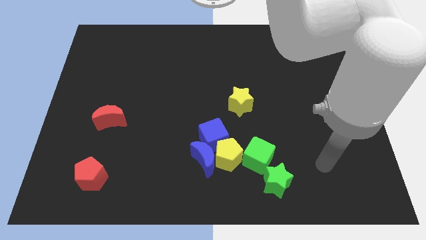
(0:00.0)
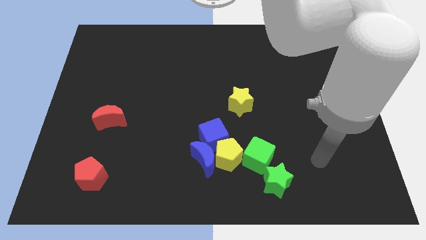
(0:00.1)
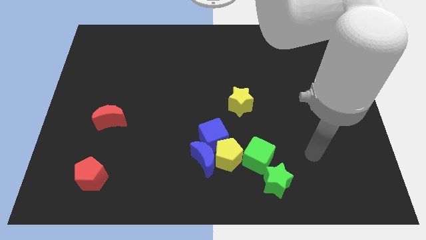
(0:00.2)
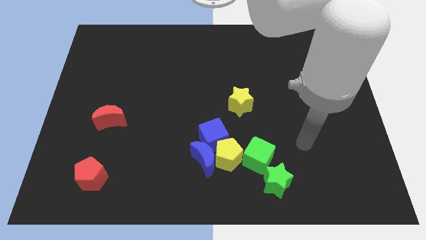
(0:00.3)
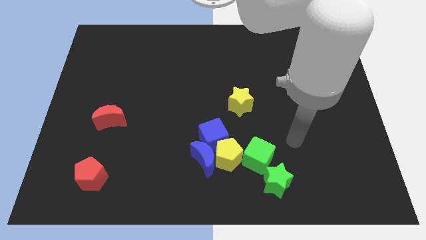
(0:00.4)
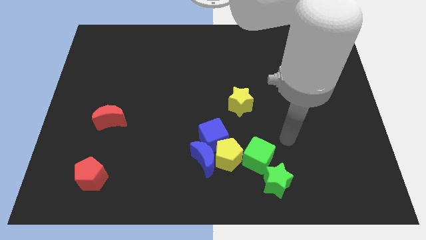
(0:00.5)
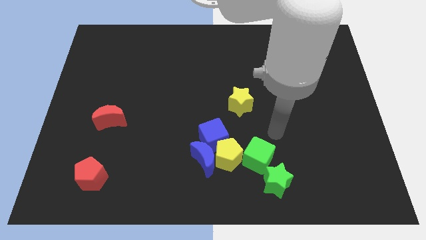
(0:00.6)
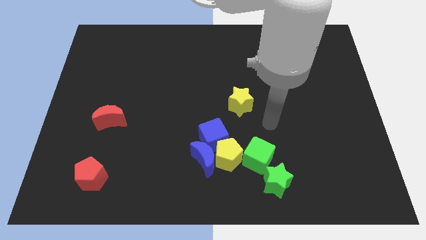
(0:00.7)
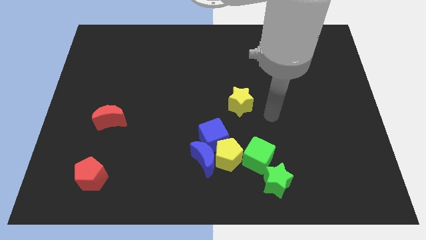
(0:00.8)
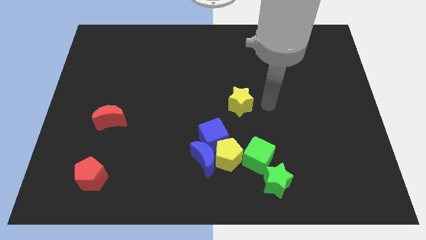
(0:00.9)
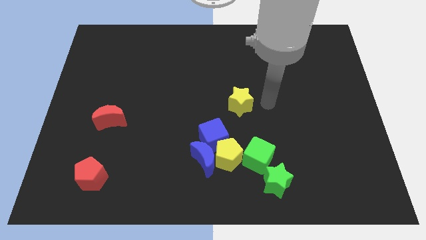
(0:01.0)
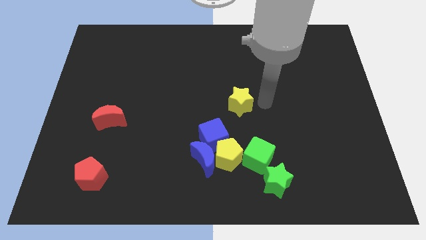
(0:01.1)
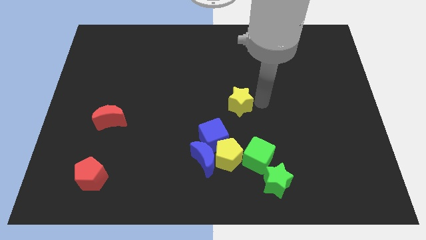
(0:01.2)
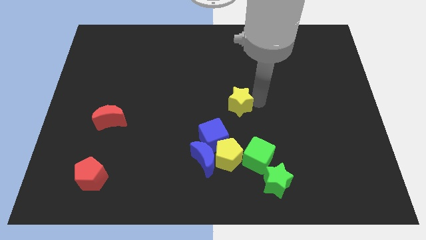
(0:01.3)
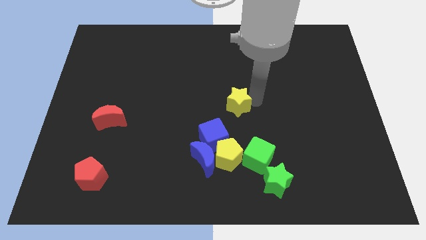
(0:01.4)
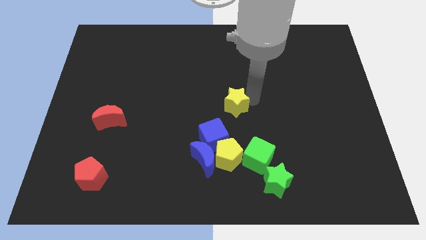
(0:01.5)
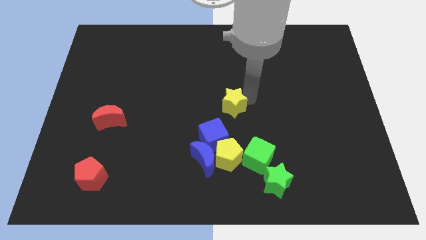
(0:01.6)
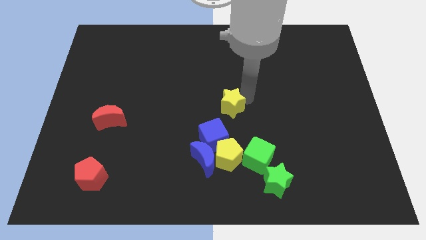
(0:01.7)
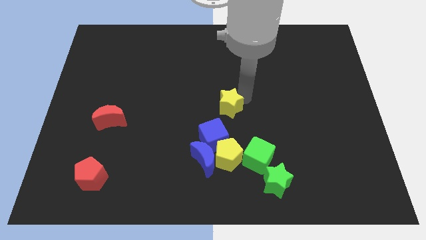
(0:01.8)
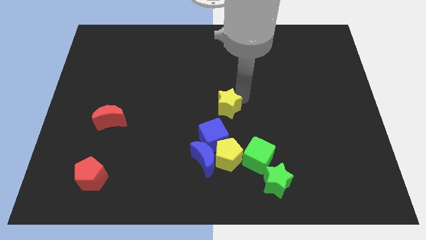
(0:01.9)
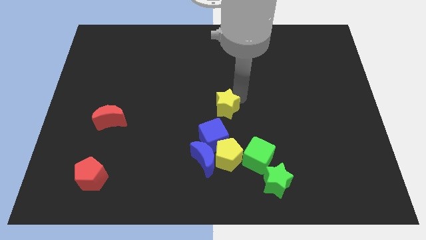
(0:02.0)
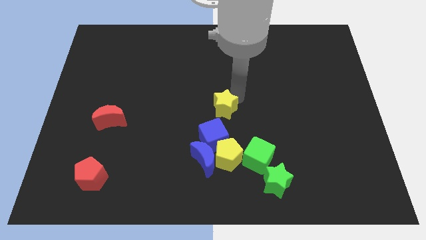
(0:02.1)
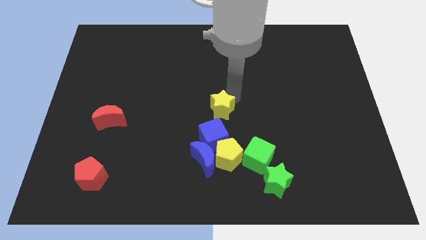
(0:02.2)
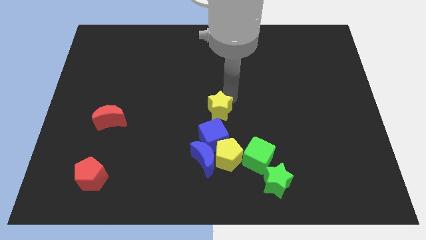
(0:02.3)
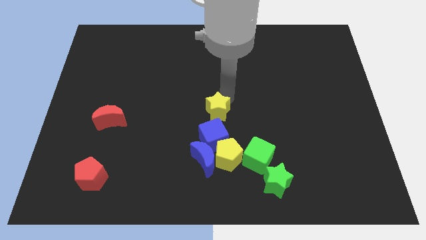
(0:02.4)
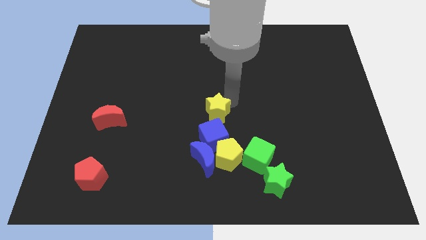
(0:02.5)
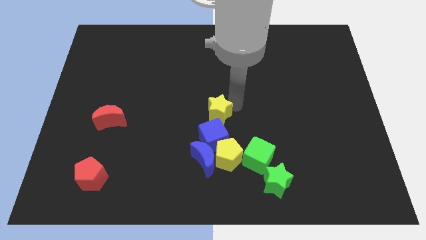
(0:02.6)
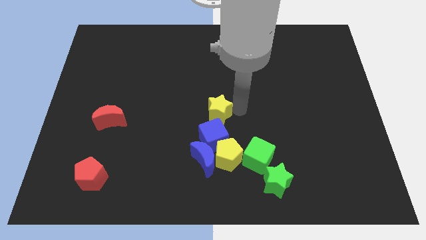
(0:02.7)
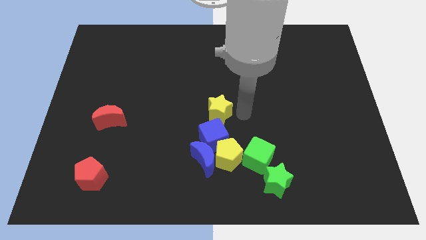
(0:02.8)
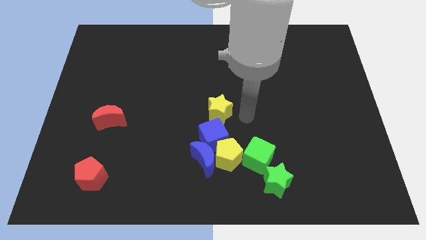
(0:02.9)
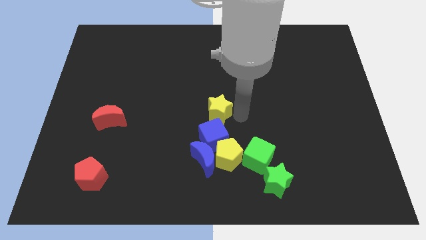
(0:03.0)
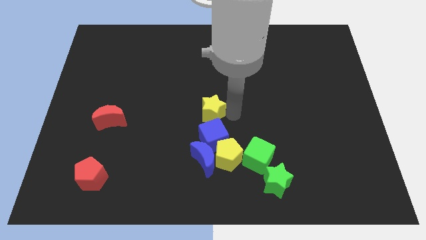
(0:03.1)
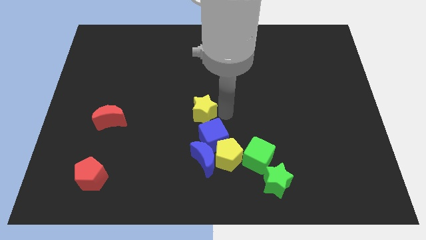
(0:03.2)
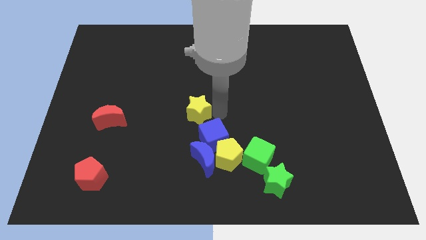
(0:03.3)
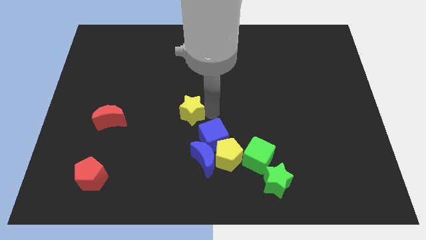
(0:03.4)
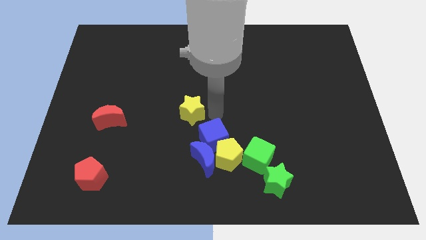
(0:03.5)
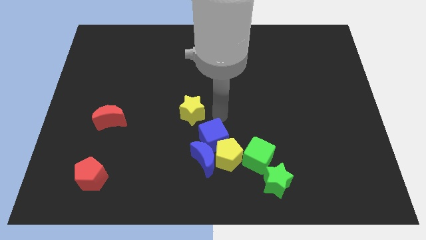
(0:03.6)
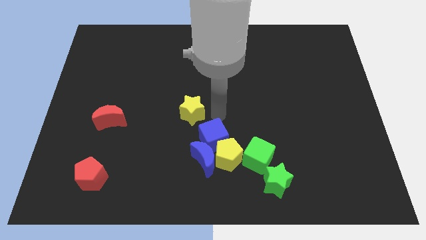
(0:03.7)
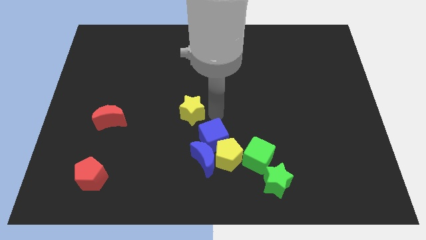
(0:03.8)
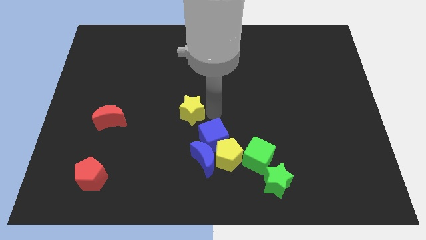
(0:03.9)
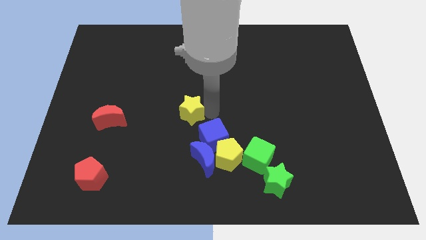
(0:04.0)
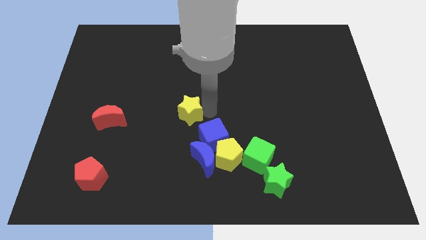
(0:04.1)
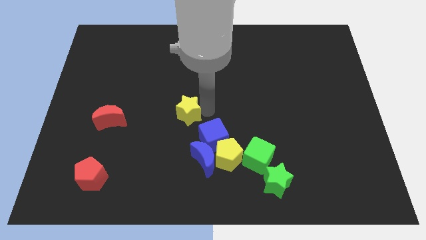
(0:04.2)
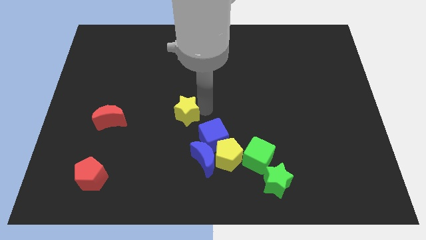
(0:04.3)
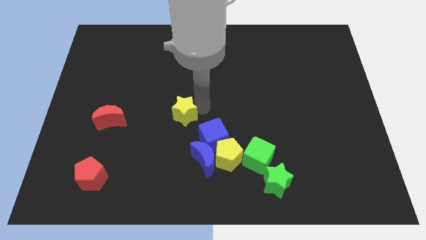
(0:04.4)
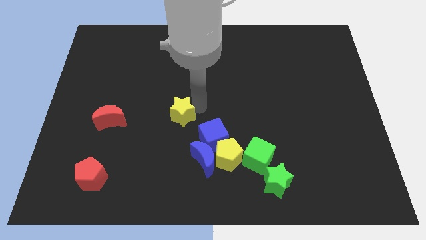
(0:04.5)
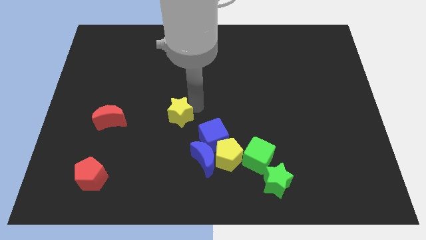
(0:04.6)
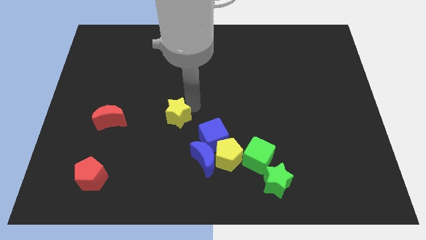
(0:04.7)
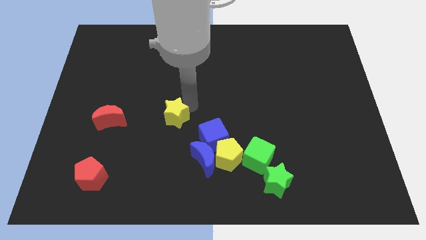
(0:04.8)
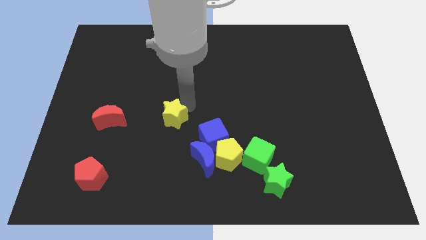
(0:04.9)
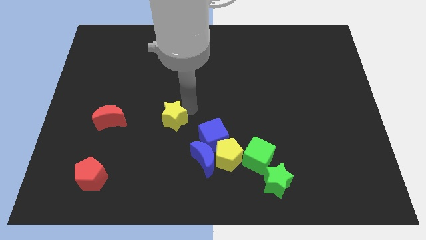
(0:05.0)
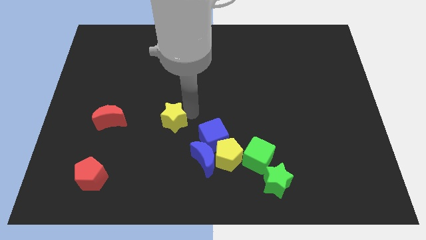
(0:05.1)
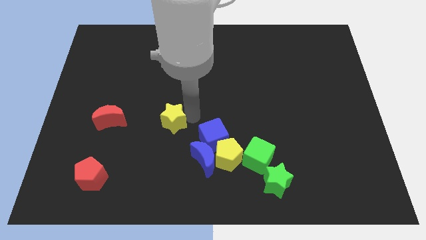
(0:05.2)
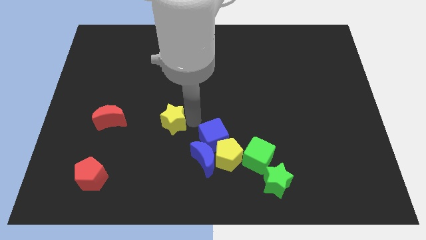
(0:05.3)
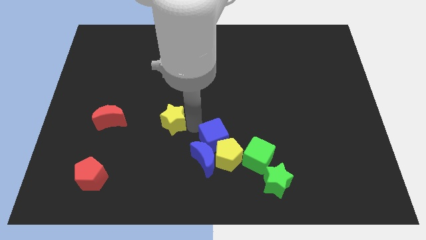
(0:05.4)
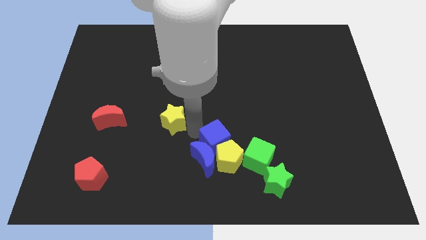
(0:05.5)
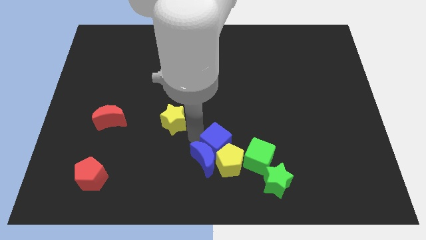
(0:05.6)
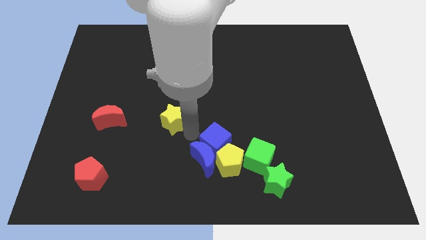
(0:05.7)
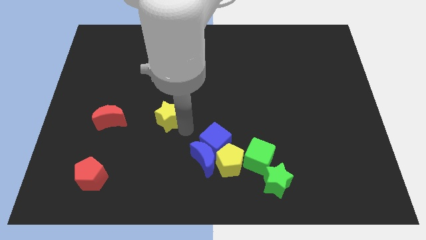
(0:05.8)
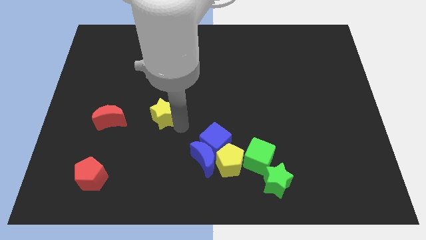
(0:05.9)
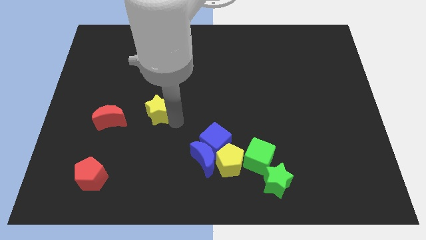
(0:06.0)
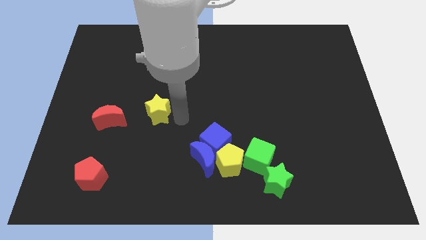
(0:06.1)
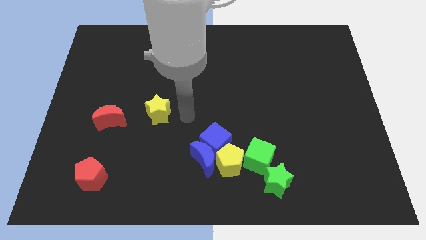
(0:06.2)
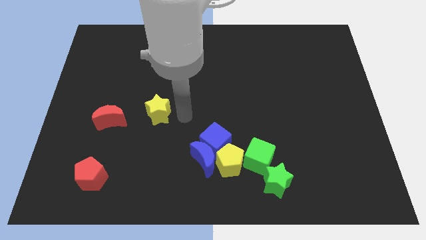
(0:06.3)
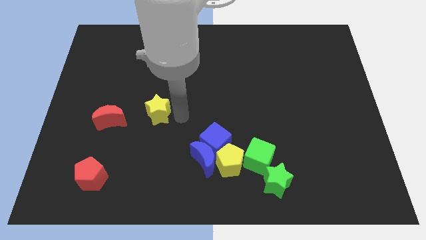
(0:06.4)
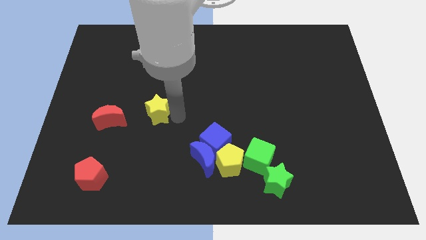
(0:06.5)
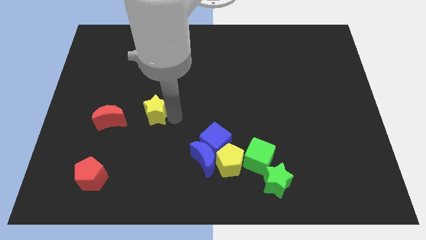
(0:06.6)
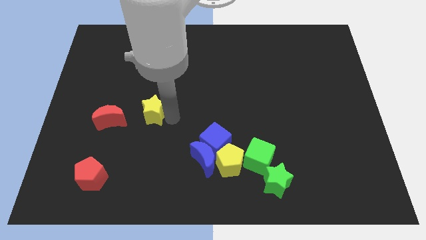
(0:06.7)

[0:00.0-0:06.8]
push the yellow star left

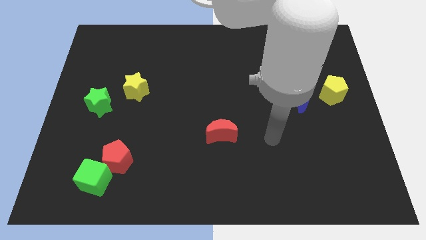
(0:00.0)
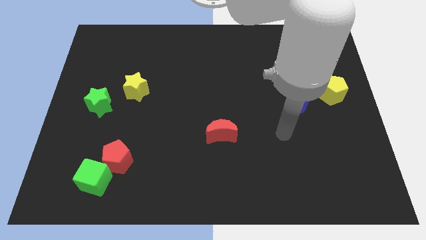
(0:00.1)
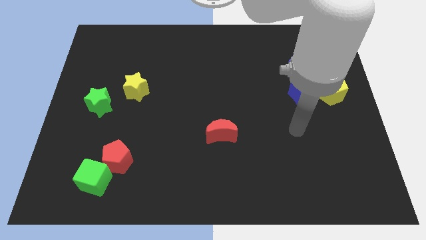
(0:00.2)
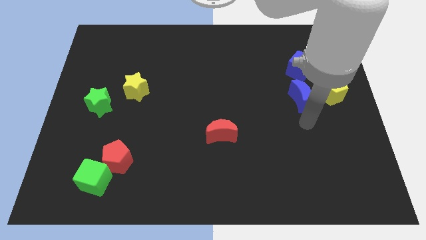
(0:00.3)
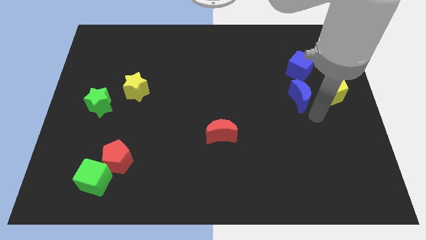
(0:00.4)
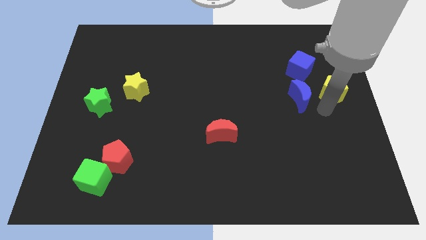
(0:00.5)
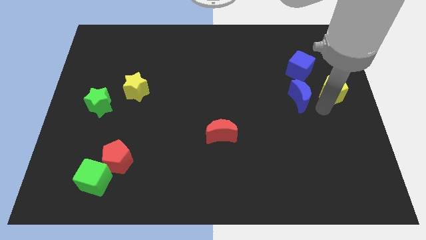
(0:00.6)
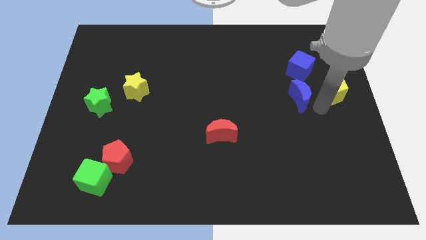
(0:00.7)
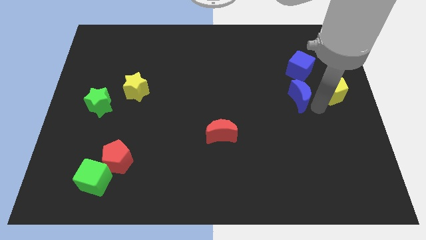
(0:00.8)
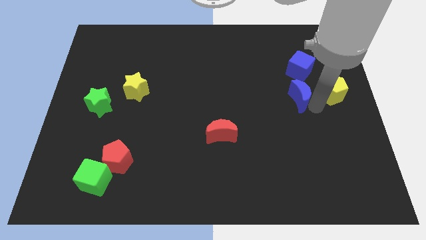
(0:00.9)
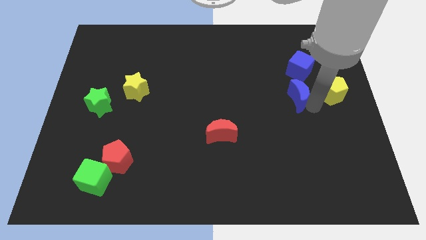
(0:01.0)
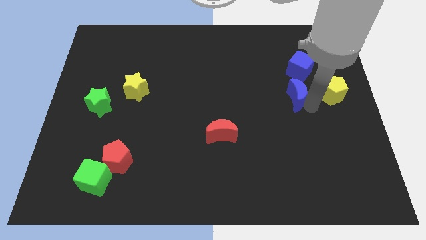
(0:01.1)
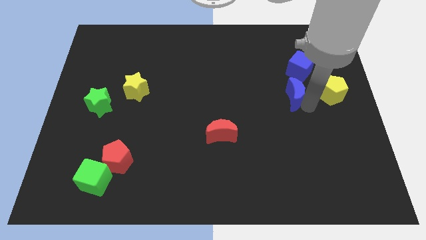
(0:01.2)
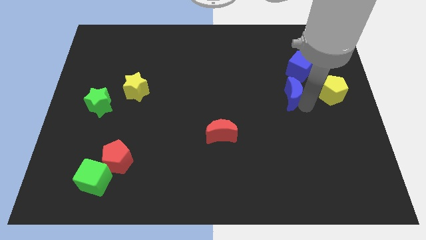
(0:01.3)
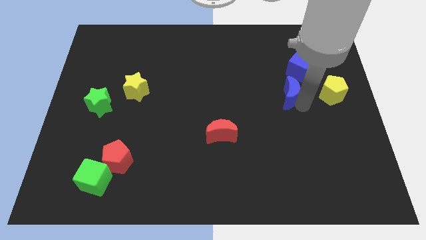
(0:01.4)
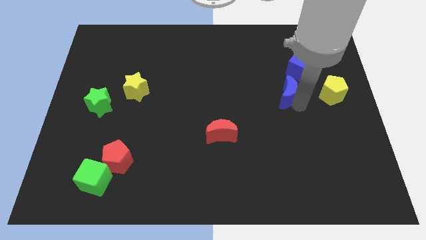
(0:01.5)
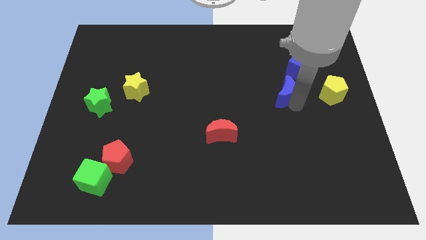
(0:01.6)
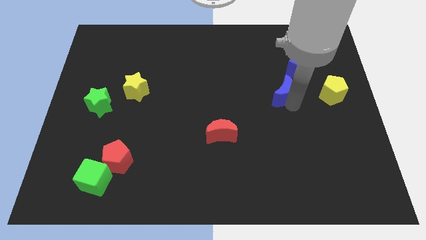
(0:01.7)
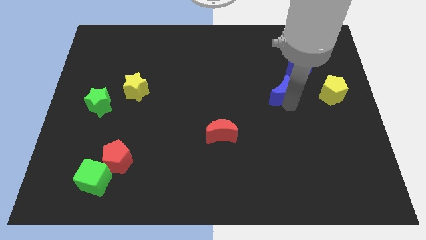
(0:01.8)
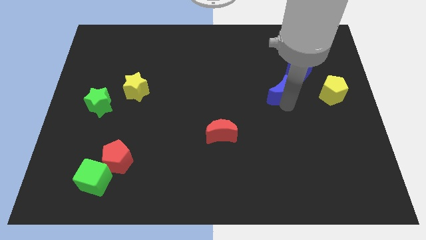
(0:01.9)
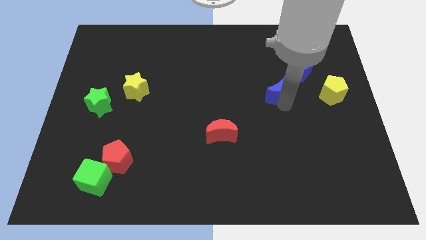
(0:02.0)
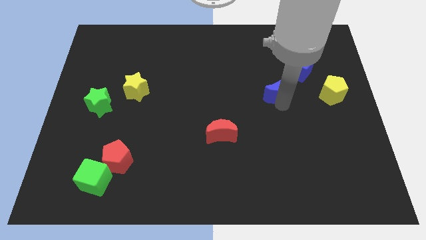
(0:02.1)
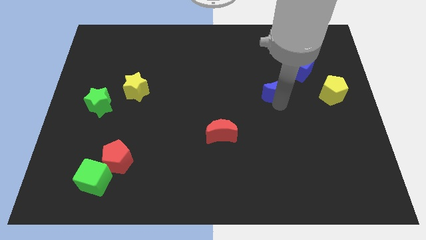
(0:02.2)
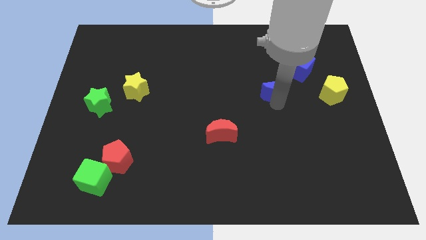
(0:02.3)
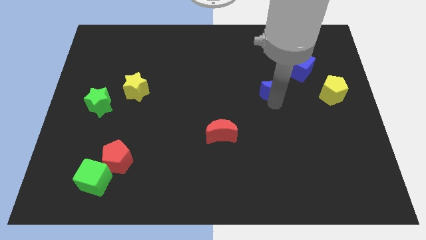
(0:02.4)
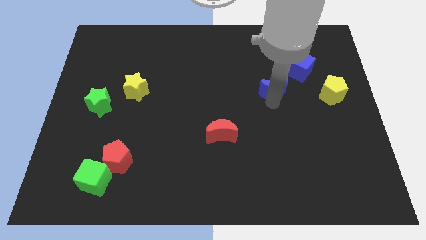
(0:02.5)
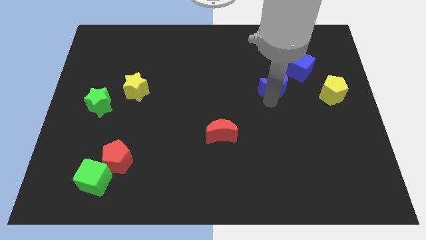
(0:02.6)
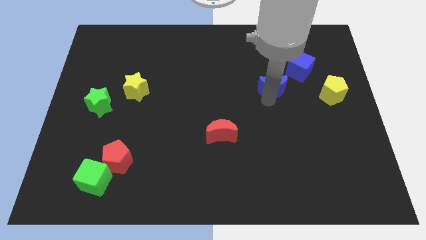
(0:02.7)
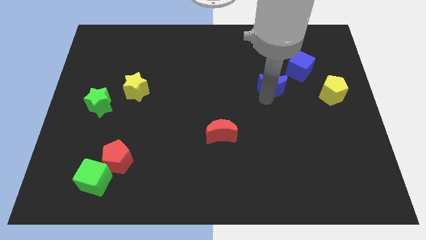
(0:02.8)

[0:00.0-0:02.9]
push the blue moon slightly diagonally up and to the left
